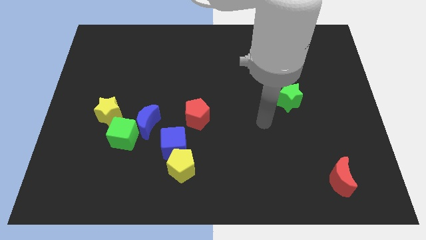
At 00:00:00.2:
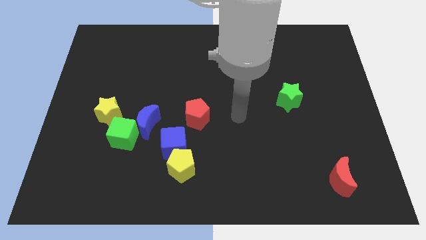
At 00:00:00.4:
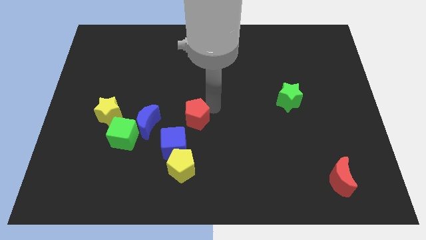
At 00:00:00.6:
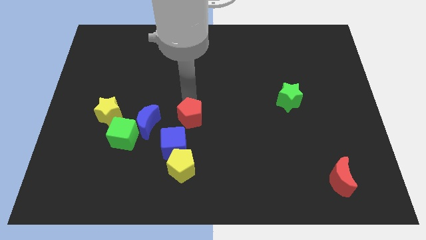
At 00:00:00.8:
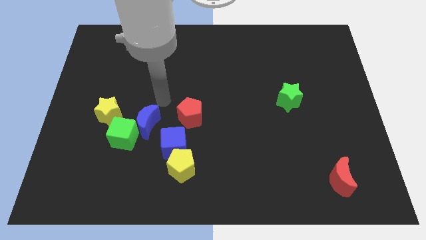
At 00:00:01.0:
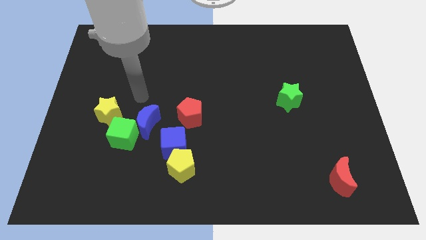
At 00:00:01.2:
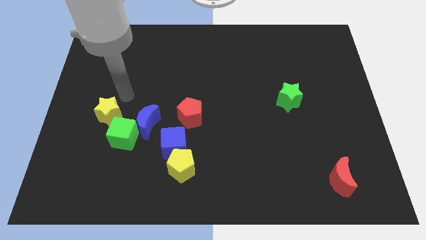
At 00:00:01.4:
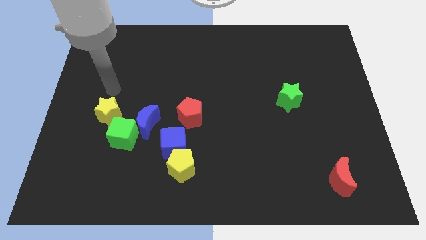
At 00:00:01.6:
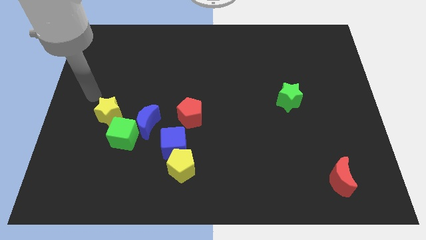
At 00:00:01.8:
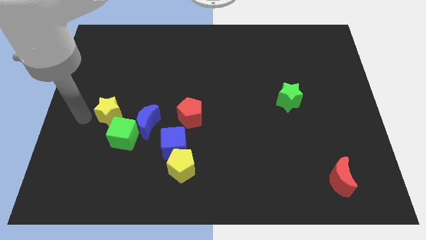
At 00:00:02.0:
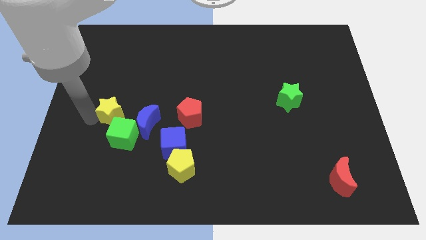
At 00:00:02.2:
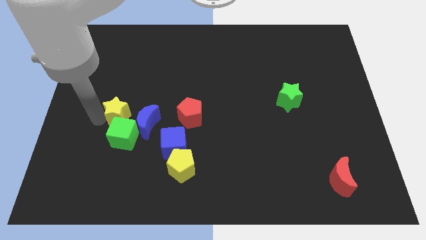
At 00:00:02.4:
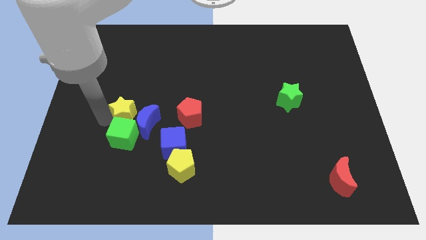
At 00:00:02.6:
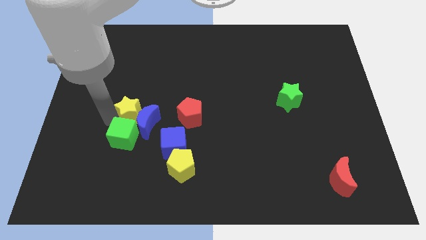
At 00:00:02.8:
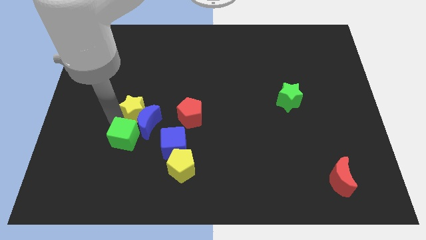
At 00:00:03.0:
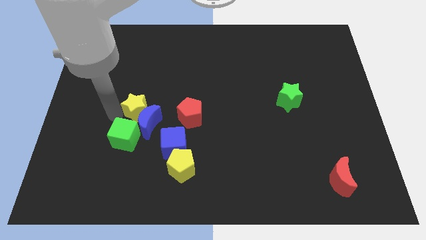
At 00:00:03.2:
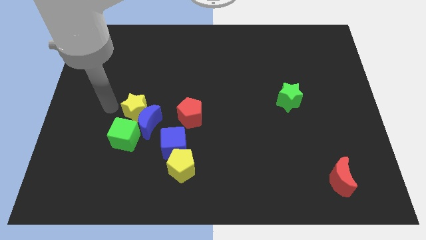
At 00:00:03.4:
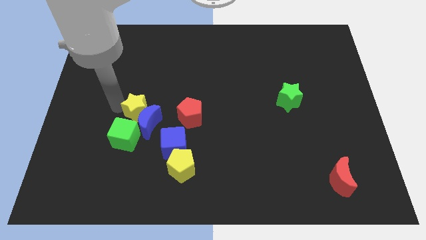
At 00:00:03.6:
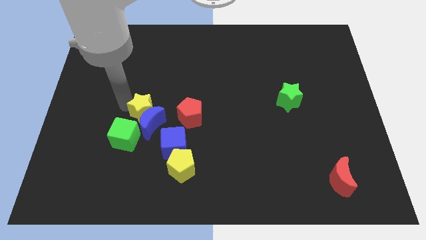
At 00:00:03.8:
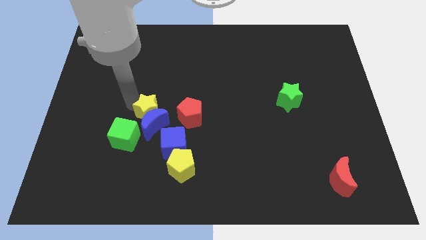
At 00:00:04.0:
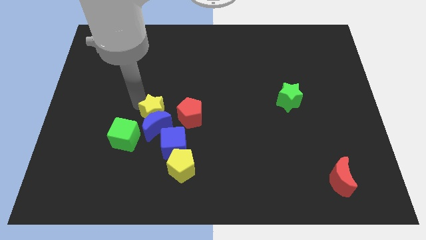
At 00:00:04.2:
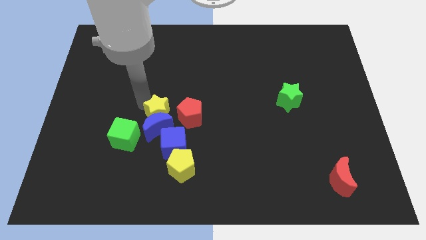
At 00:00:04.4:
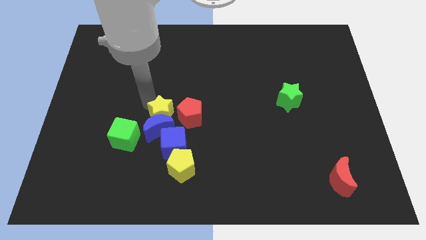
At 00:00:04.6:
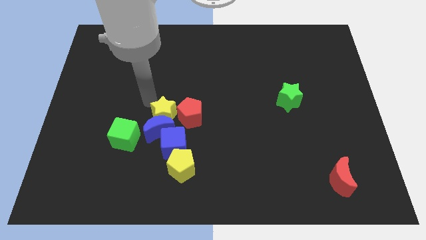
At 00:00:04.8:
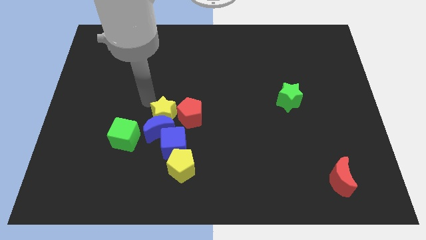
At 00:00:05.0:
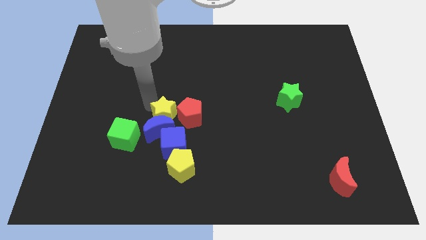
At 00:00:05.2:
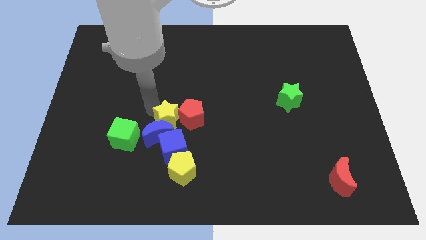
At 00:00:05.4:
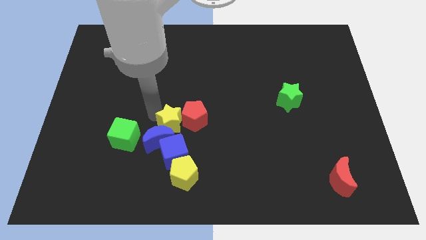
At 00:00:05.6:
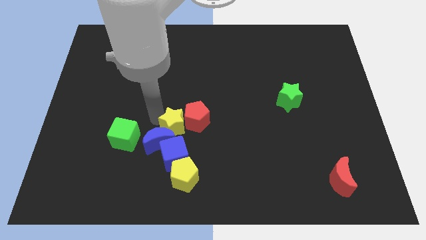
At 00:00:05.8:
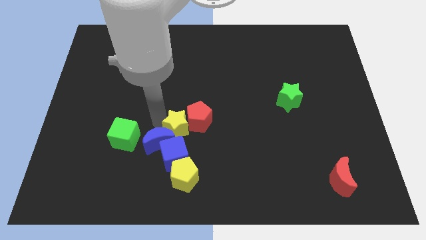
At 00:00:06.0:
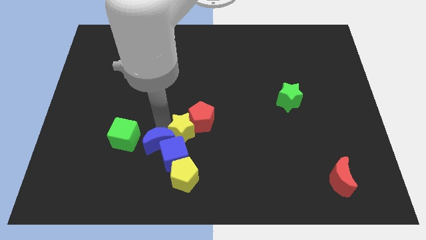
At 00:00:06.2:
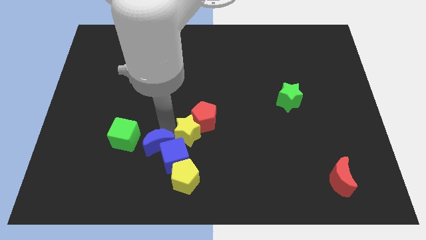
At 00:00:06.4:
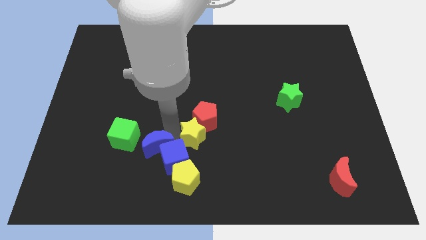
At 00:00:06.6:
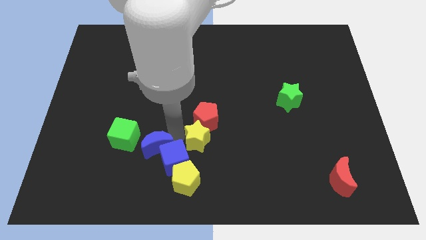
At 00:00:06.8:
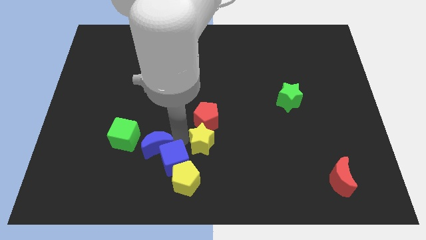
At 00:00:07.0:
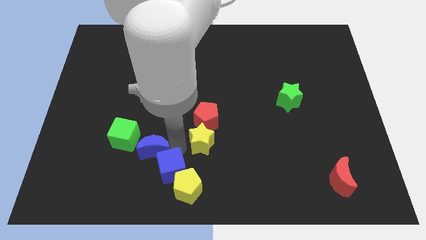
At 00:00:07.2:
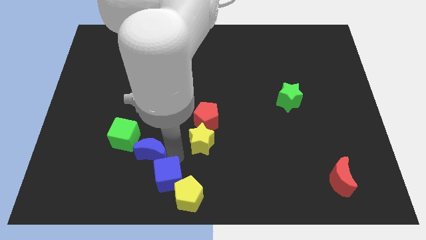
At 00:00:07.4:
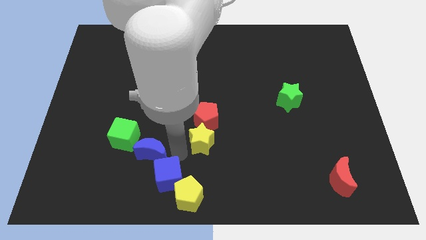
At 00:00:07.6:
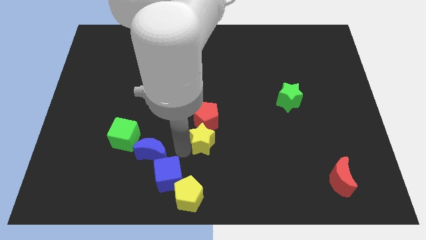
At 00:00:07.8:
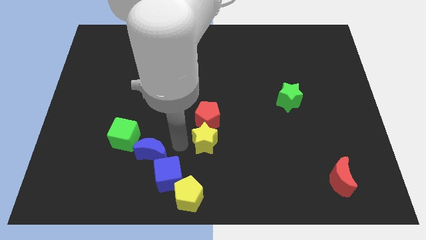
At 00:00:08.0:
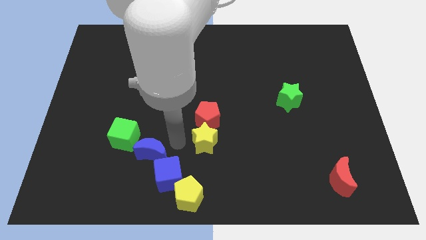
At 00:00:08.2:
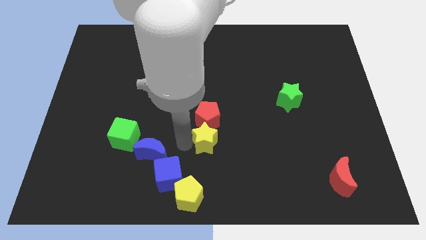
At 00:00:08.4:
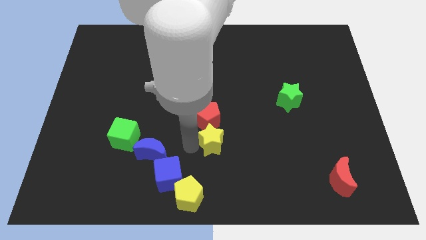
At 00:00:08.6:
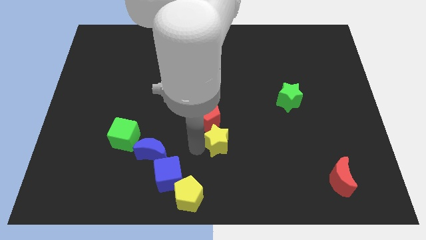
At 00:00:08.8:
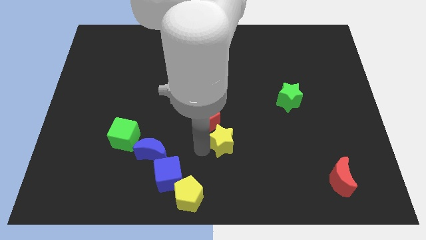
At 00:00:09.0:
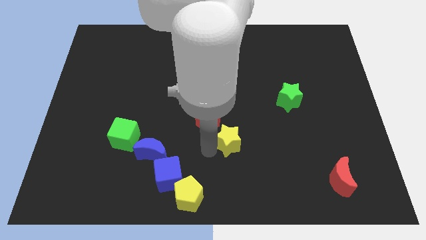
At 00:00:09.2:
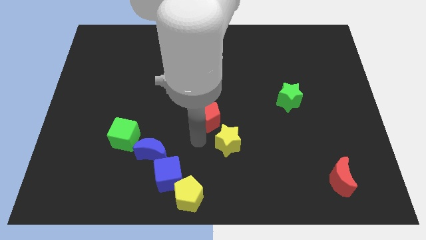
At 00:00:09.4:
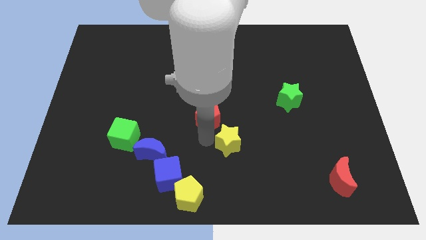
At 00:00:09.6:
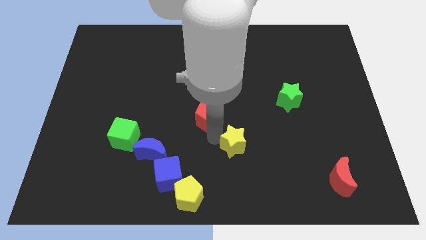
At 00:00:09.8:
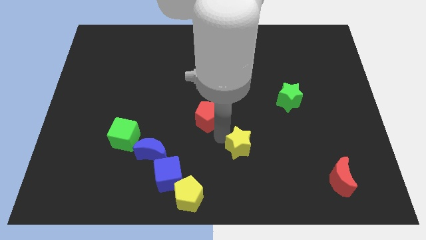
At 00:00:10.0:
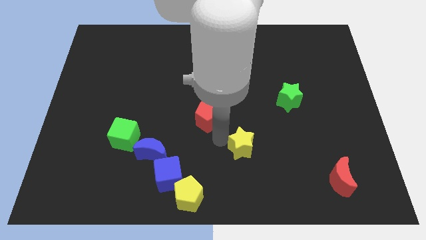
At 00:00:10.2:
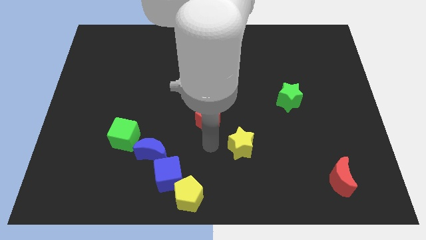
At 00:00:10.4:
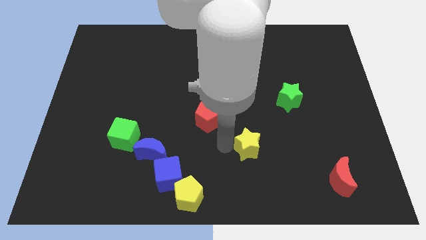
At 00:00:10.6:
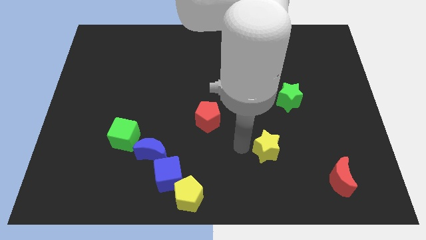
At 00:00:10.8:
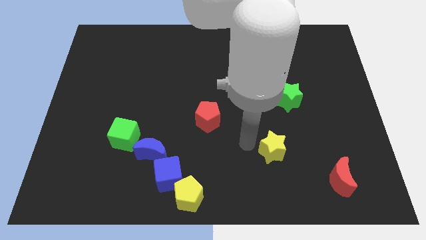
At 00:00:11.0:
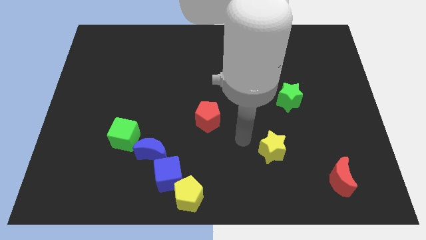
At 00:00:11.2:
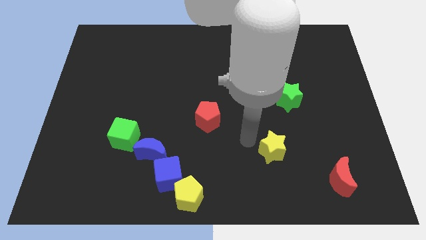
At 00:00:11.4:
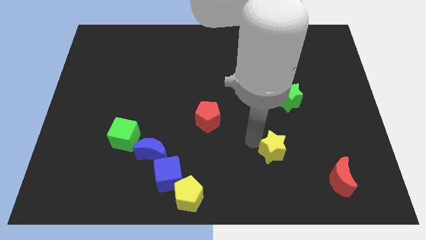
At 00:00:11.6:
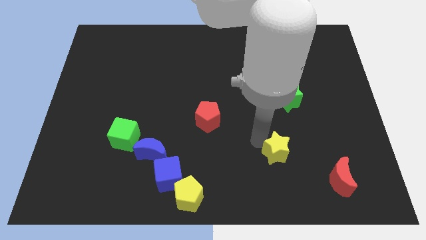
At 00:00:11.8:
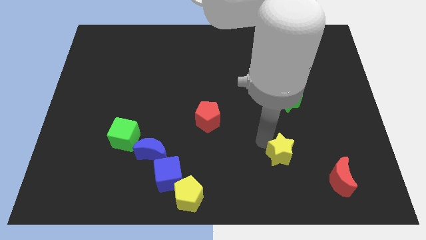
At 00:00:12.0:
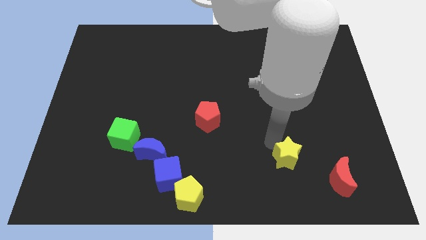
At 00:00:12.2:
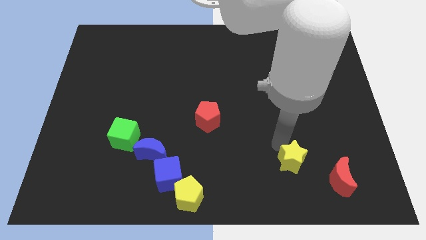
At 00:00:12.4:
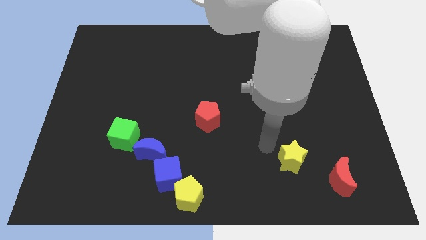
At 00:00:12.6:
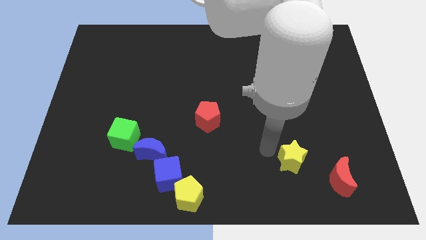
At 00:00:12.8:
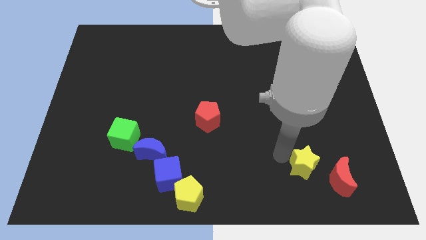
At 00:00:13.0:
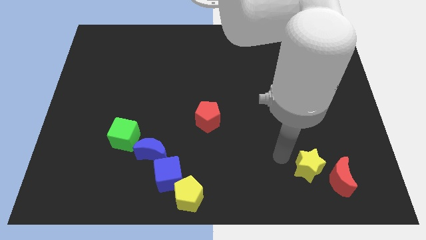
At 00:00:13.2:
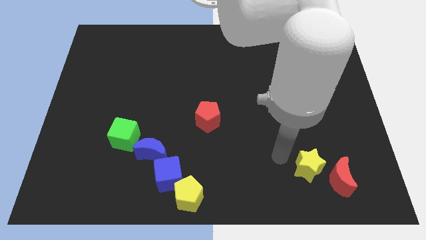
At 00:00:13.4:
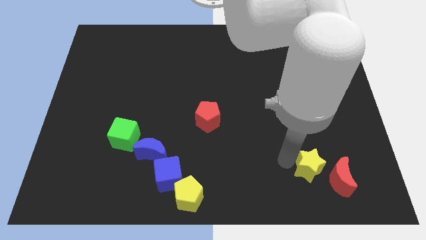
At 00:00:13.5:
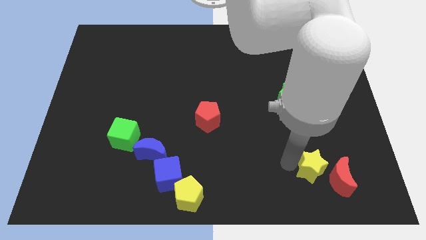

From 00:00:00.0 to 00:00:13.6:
push the yellow star towards the red moon

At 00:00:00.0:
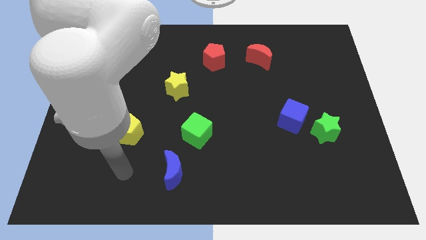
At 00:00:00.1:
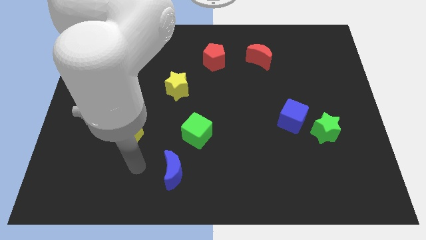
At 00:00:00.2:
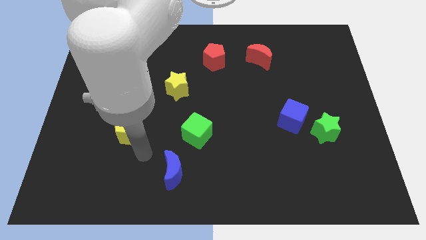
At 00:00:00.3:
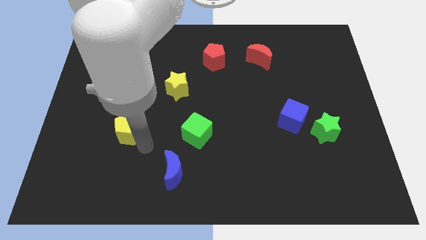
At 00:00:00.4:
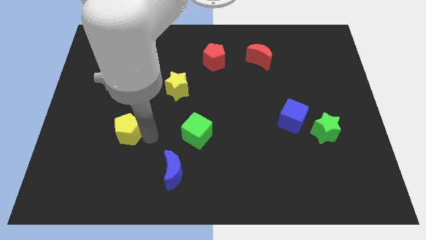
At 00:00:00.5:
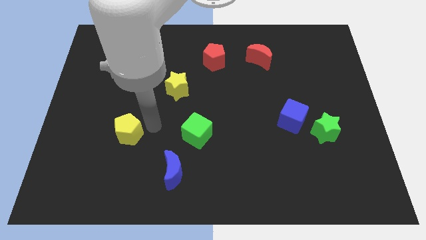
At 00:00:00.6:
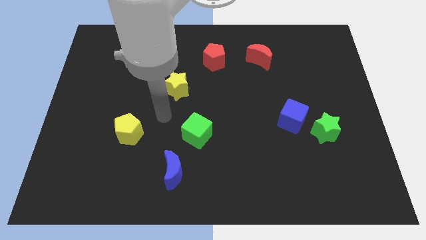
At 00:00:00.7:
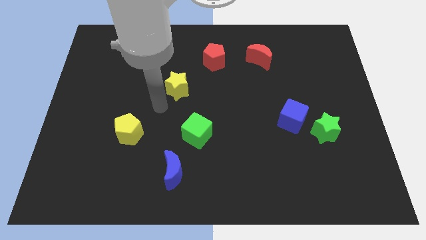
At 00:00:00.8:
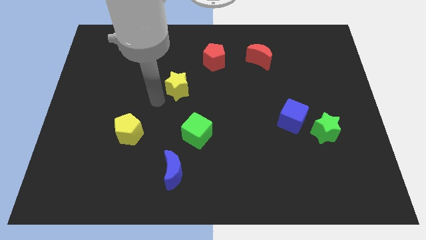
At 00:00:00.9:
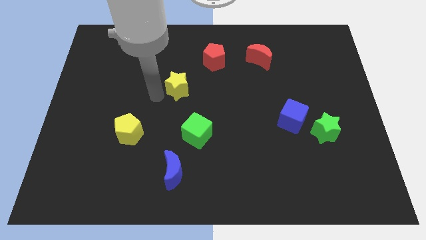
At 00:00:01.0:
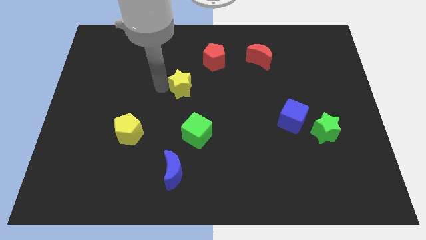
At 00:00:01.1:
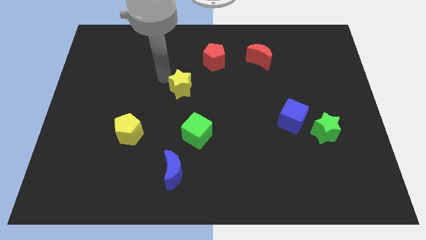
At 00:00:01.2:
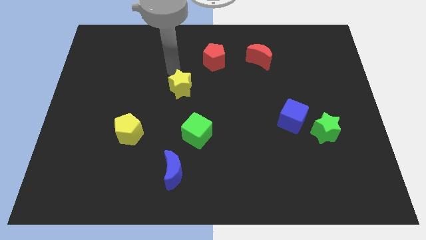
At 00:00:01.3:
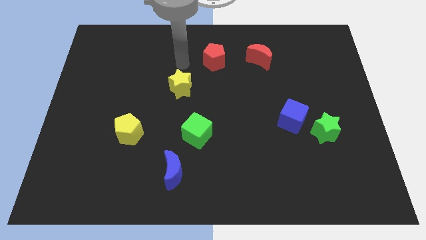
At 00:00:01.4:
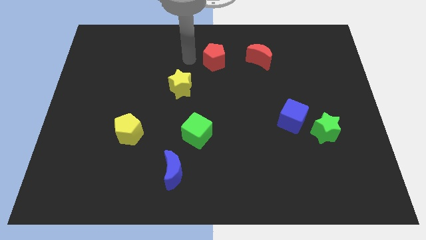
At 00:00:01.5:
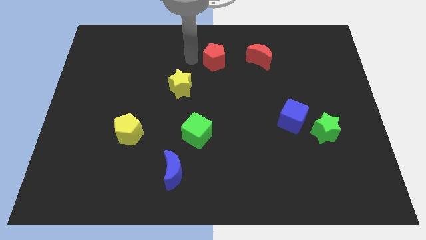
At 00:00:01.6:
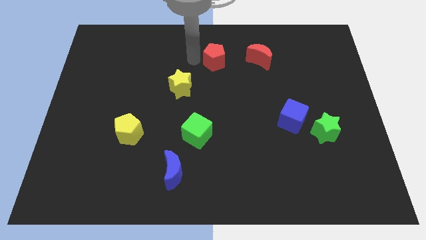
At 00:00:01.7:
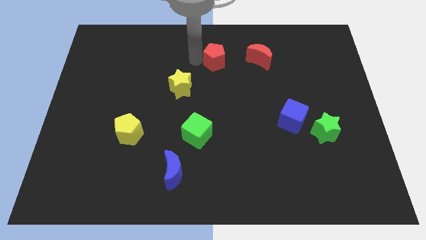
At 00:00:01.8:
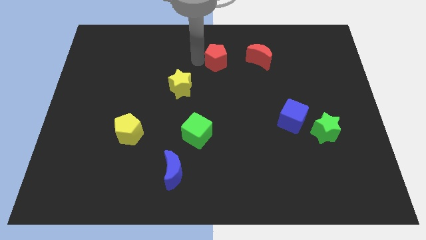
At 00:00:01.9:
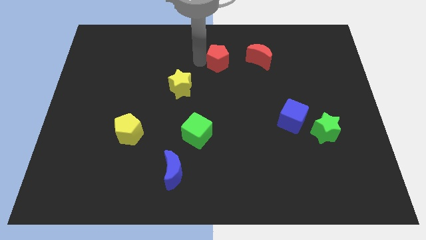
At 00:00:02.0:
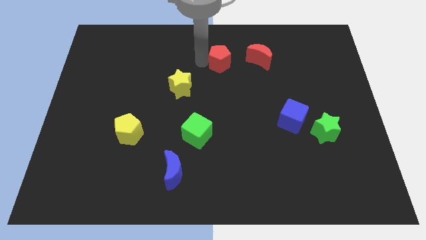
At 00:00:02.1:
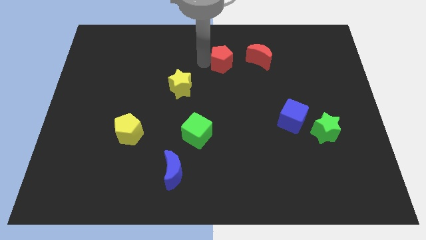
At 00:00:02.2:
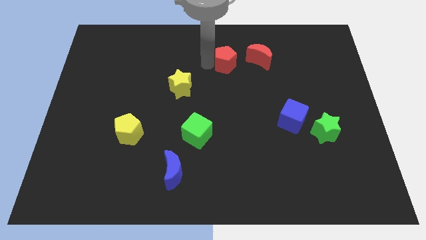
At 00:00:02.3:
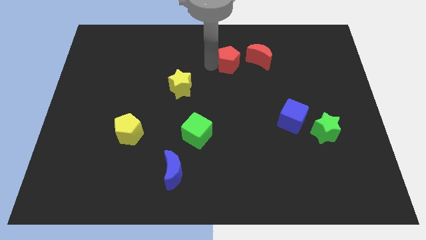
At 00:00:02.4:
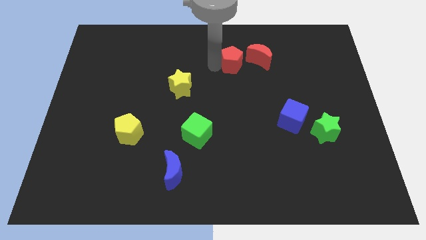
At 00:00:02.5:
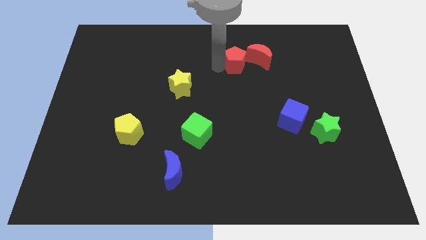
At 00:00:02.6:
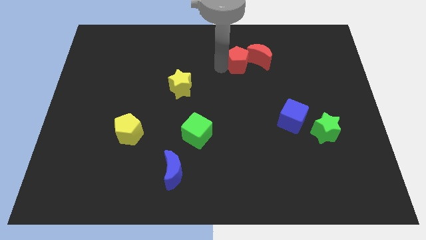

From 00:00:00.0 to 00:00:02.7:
put the red pentagon towards the red moon
